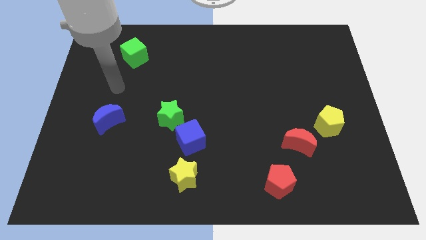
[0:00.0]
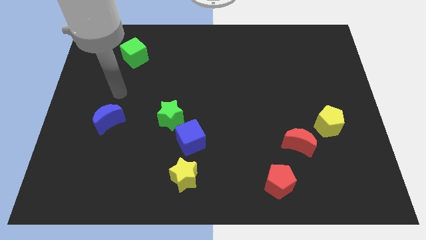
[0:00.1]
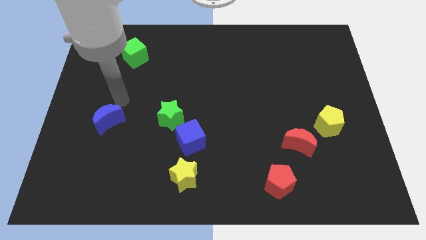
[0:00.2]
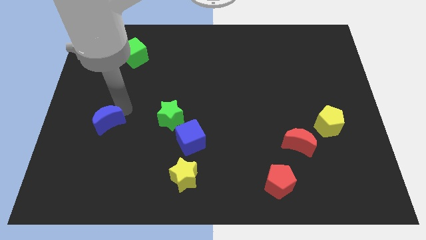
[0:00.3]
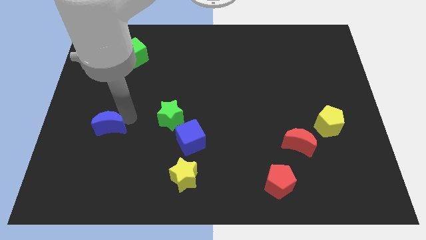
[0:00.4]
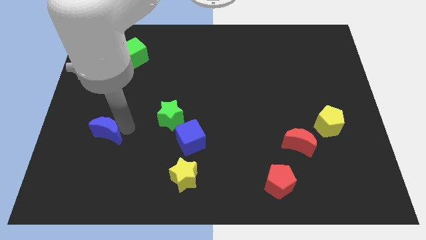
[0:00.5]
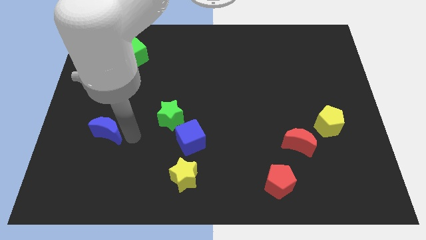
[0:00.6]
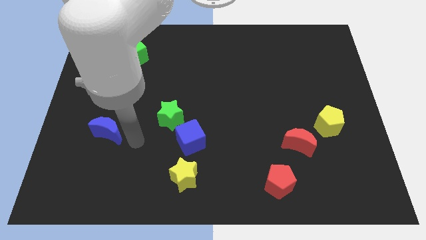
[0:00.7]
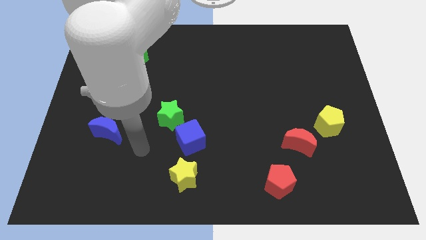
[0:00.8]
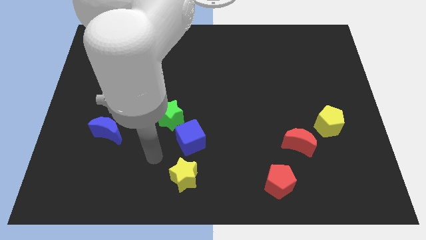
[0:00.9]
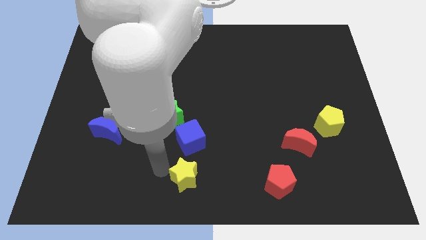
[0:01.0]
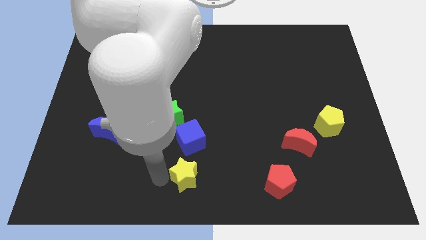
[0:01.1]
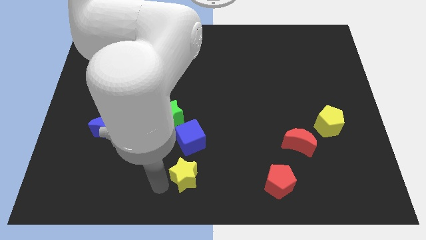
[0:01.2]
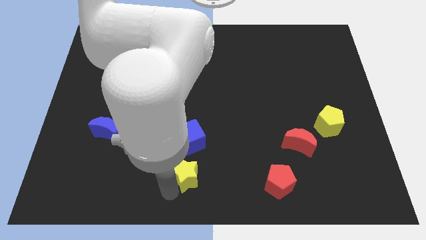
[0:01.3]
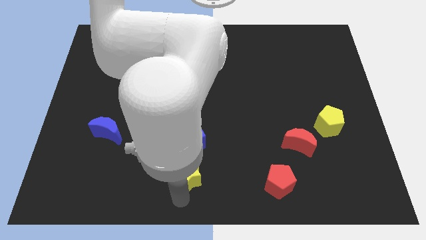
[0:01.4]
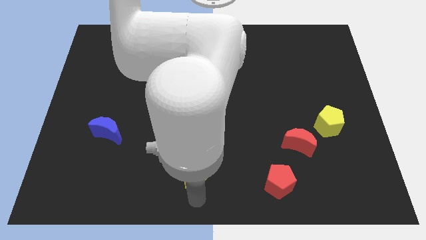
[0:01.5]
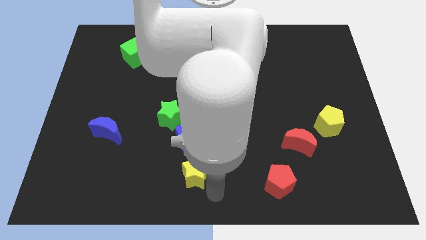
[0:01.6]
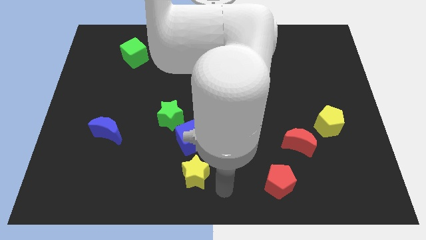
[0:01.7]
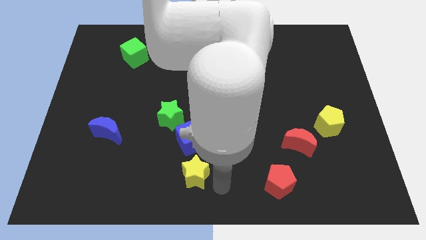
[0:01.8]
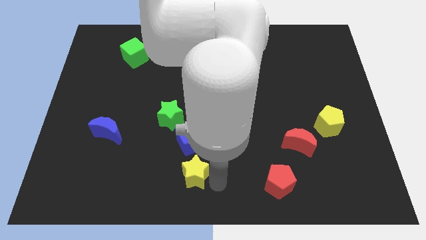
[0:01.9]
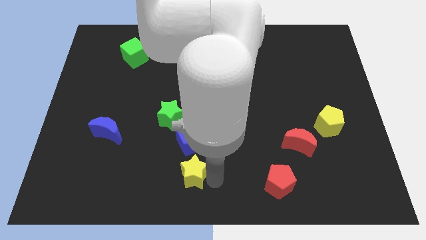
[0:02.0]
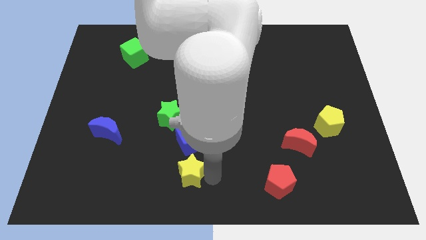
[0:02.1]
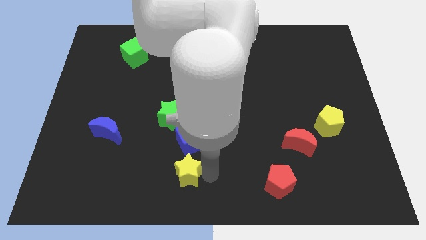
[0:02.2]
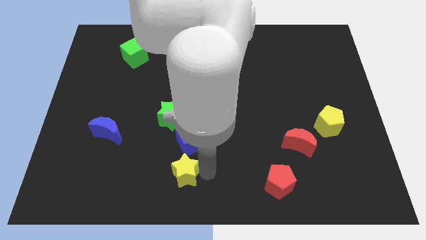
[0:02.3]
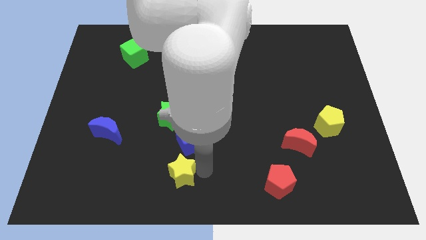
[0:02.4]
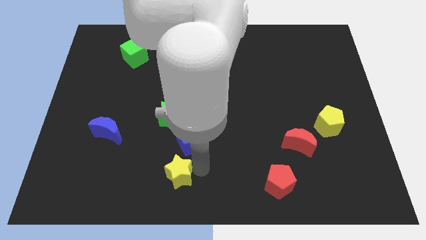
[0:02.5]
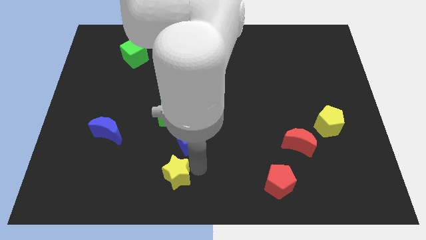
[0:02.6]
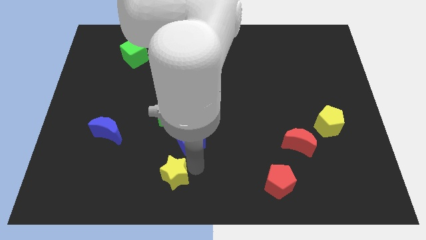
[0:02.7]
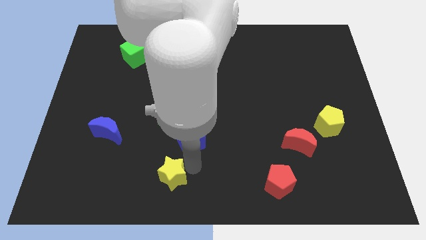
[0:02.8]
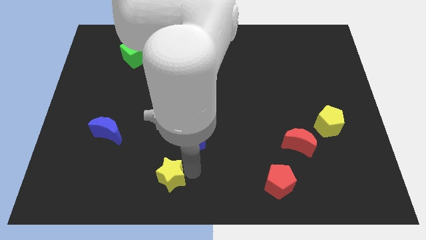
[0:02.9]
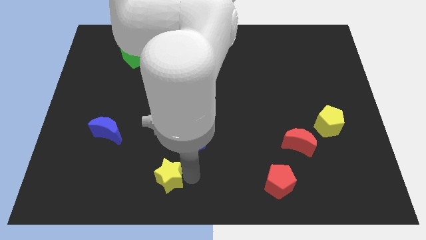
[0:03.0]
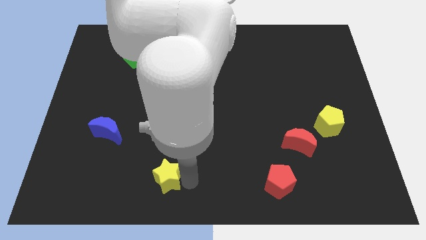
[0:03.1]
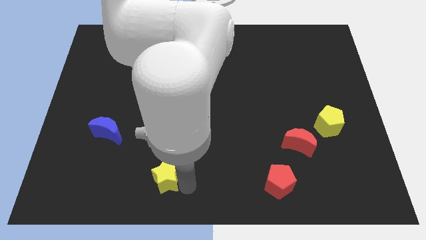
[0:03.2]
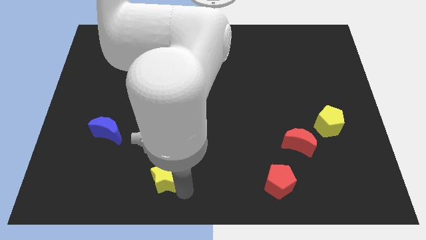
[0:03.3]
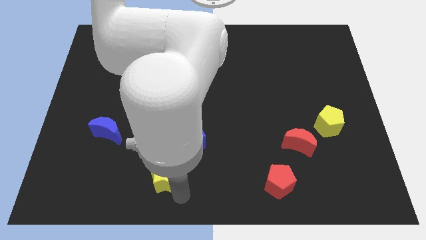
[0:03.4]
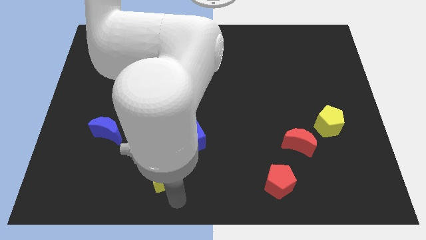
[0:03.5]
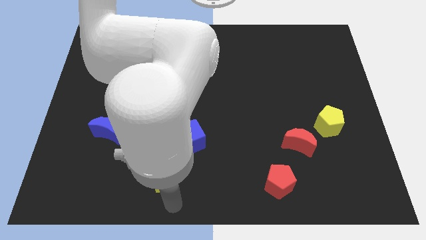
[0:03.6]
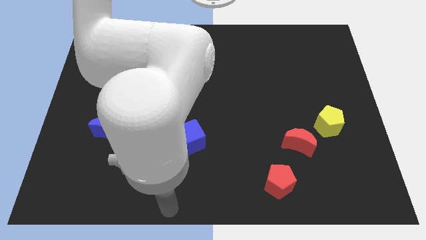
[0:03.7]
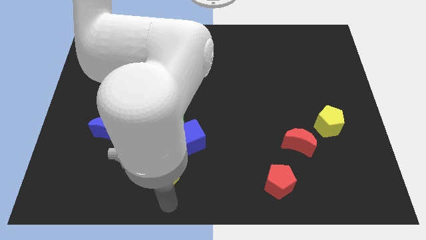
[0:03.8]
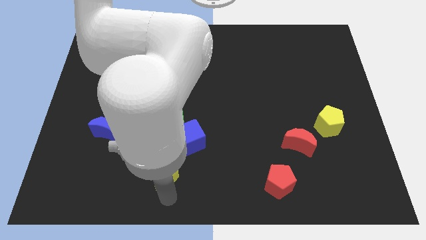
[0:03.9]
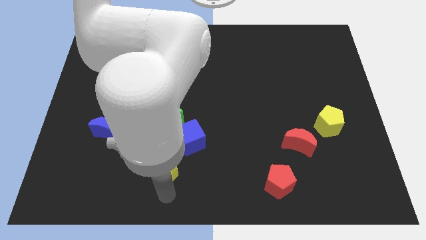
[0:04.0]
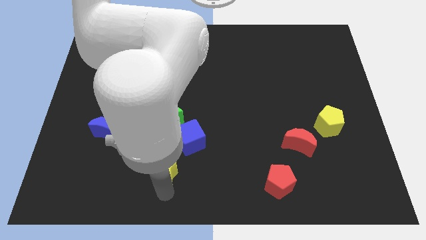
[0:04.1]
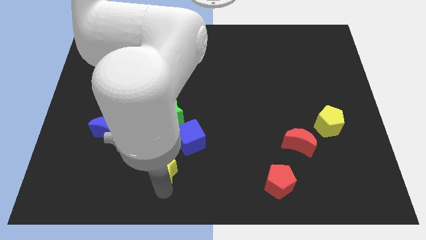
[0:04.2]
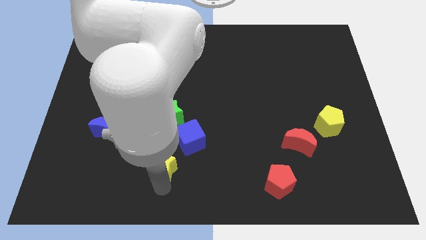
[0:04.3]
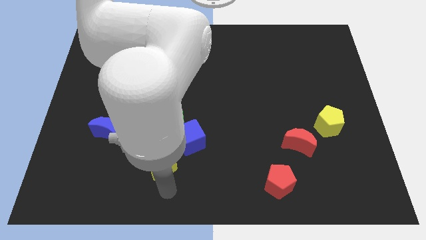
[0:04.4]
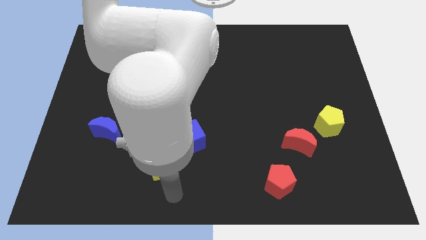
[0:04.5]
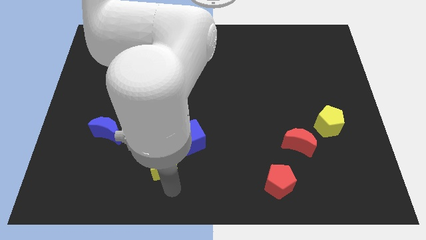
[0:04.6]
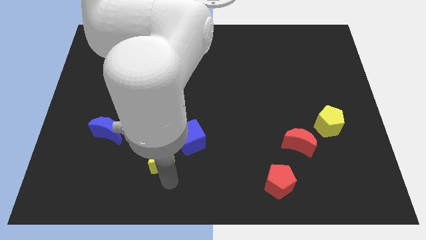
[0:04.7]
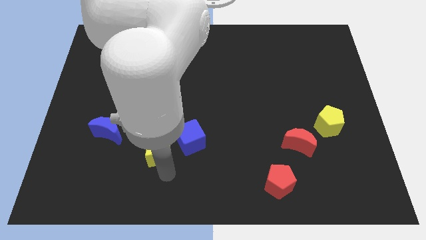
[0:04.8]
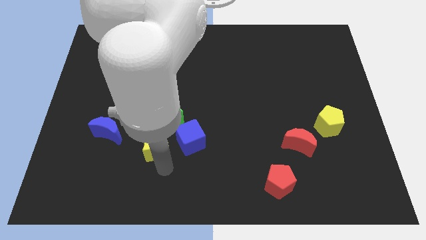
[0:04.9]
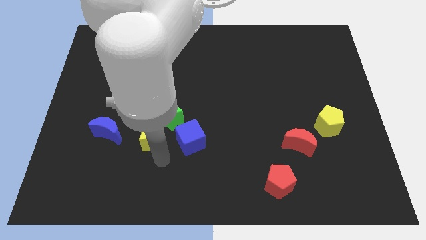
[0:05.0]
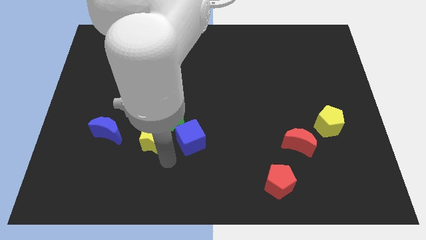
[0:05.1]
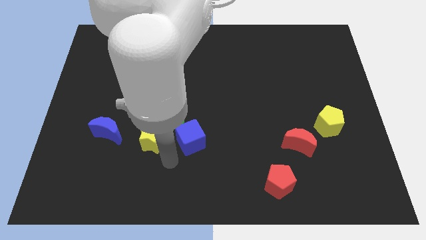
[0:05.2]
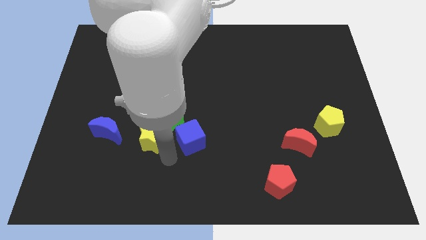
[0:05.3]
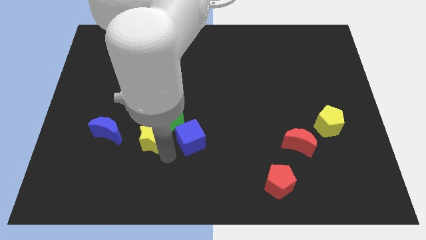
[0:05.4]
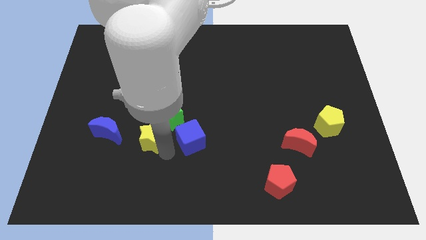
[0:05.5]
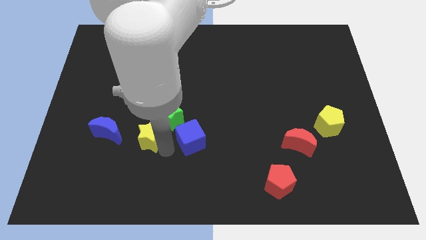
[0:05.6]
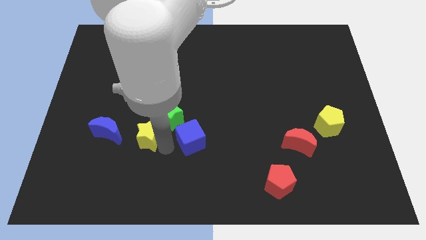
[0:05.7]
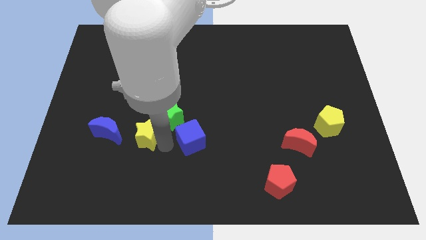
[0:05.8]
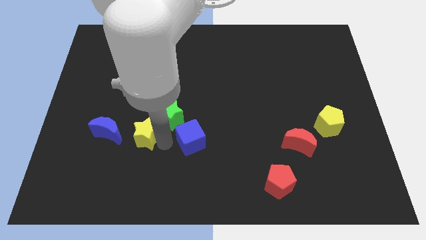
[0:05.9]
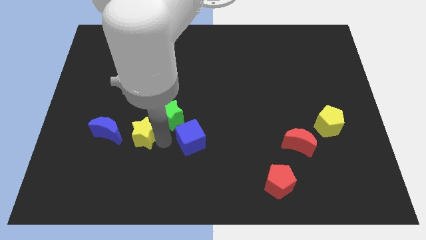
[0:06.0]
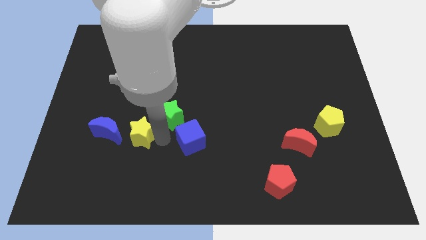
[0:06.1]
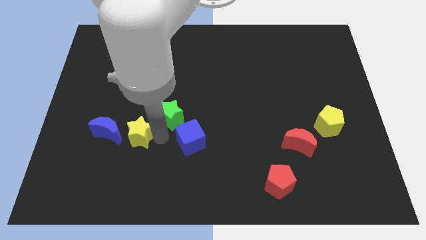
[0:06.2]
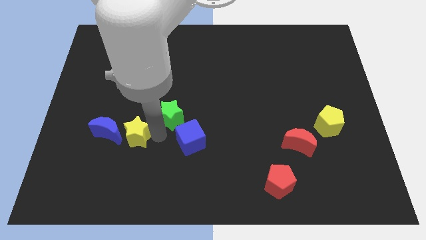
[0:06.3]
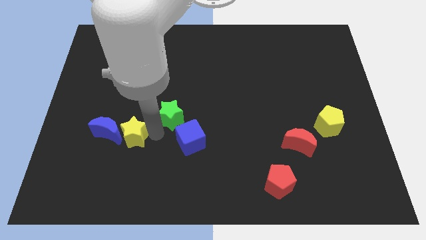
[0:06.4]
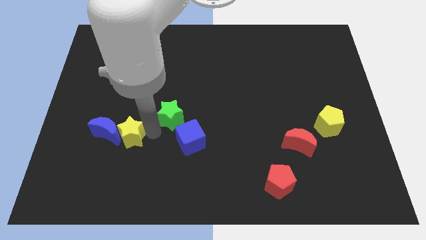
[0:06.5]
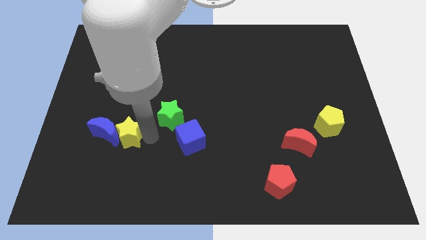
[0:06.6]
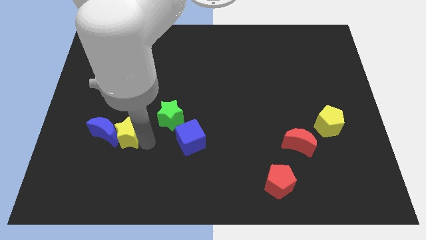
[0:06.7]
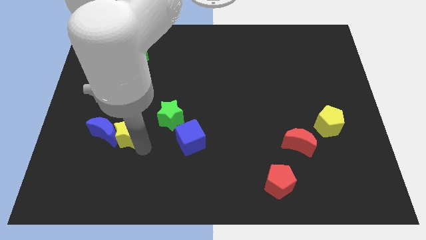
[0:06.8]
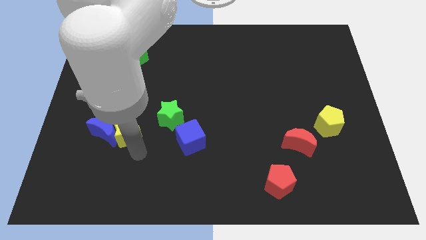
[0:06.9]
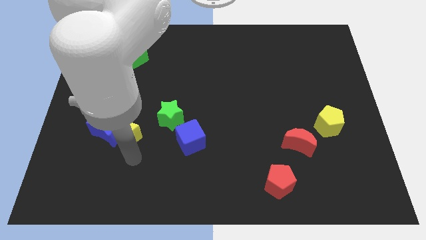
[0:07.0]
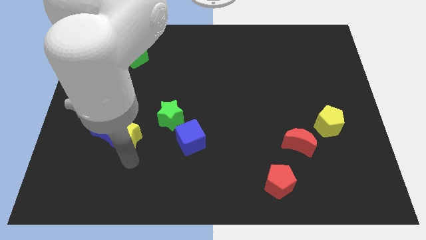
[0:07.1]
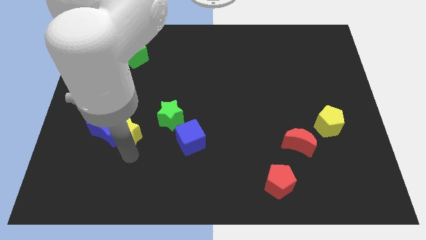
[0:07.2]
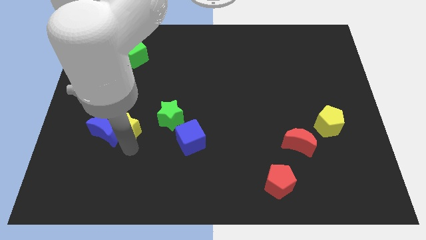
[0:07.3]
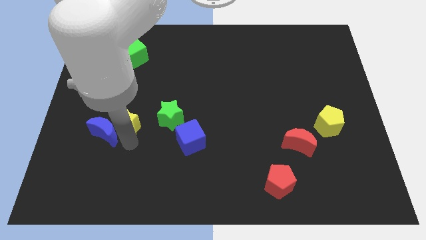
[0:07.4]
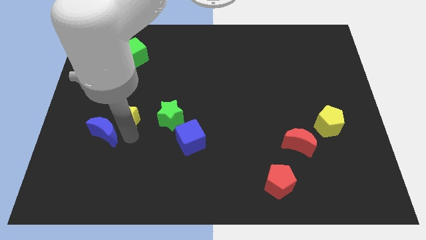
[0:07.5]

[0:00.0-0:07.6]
push the yellow star diagonally upwards and left

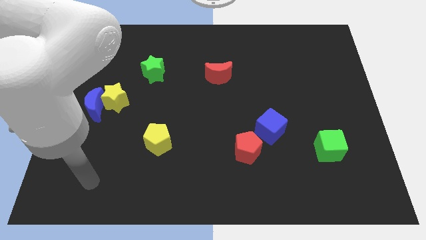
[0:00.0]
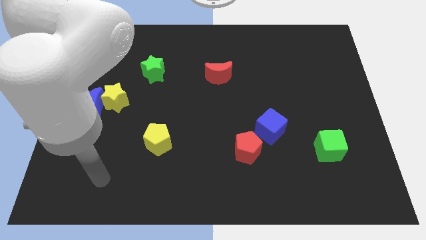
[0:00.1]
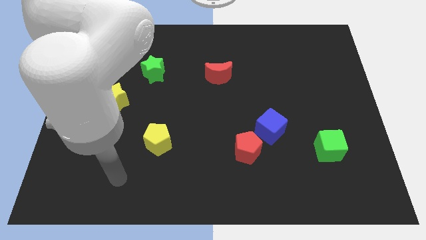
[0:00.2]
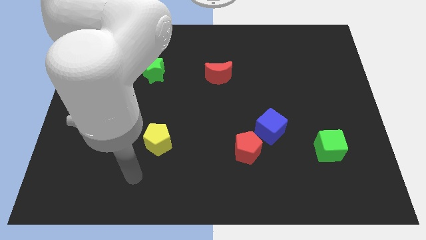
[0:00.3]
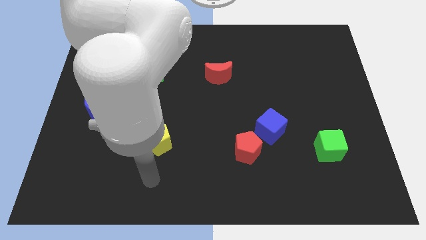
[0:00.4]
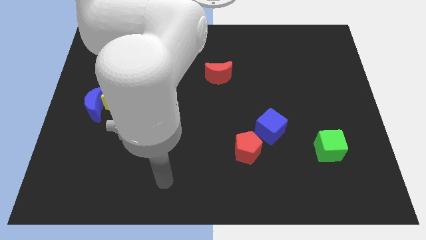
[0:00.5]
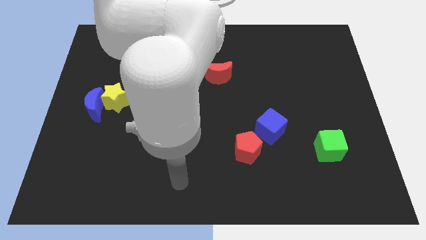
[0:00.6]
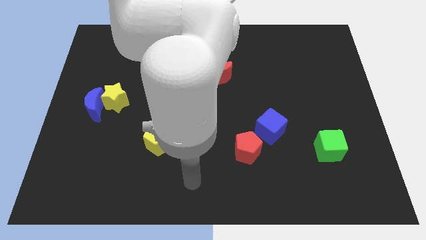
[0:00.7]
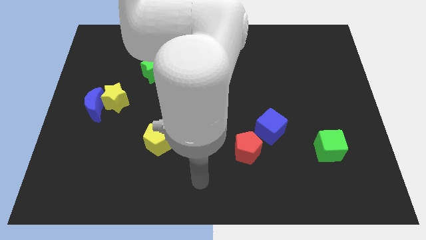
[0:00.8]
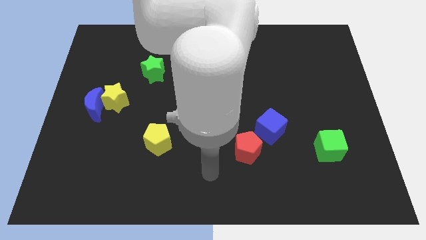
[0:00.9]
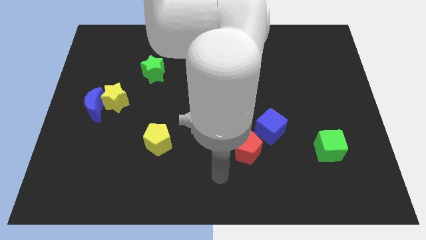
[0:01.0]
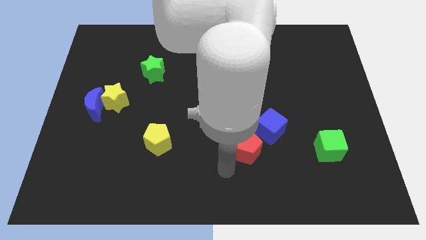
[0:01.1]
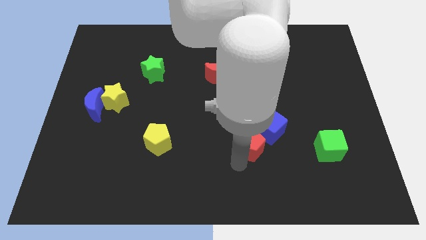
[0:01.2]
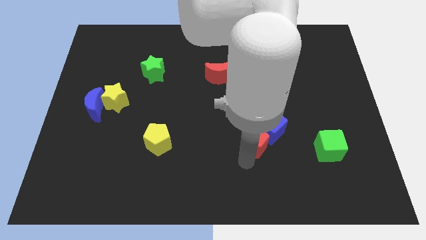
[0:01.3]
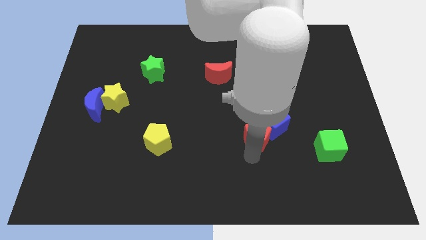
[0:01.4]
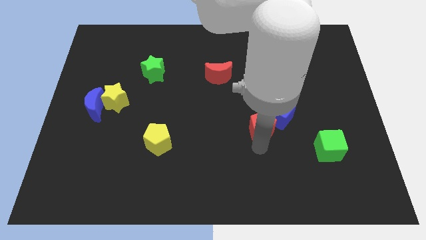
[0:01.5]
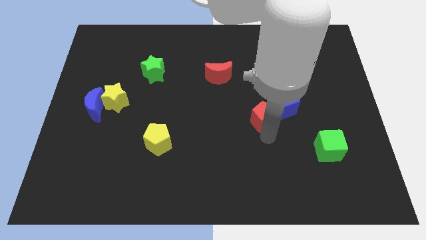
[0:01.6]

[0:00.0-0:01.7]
push the blue cube a bit upwards and right diagonally
